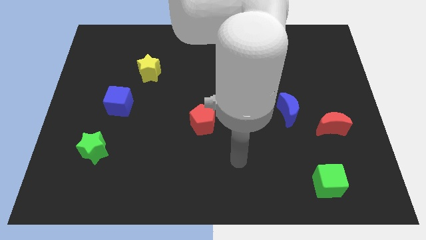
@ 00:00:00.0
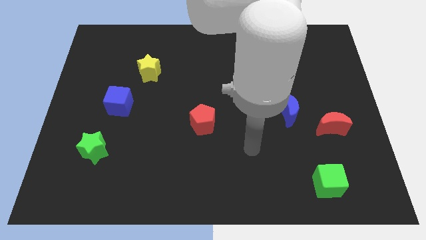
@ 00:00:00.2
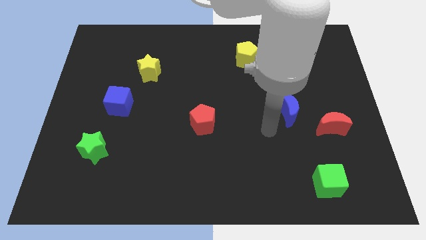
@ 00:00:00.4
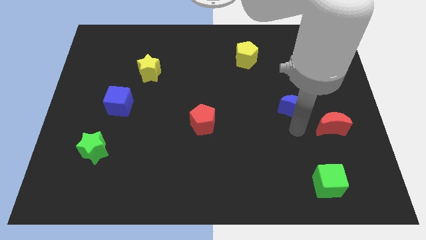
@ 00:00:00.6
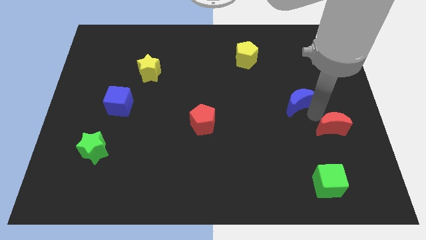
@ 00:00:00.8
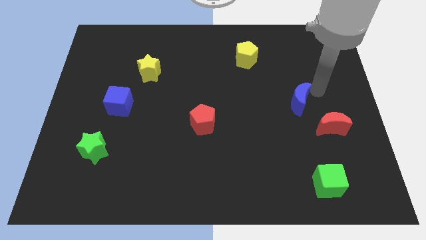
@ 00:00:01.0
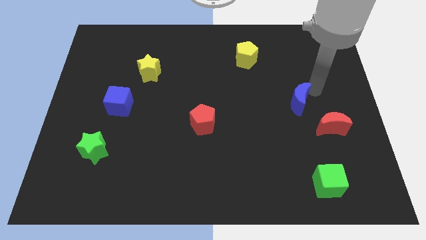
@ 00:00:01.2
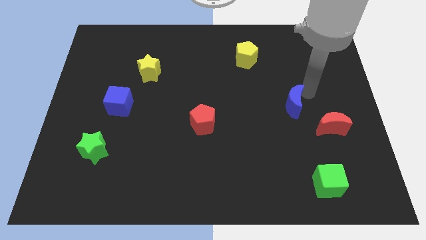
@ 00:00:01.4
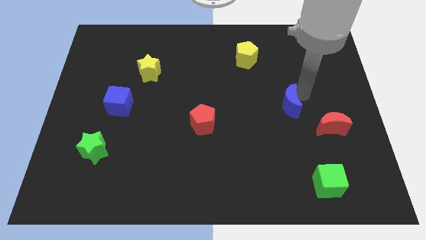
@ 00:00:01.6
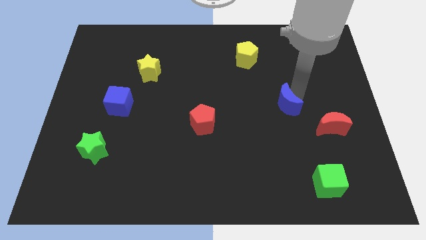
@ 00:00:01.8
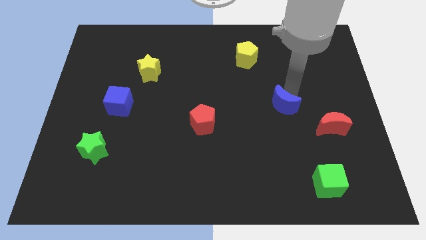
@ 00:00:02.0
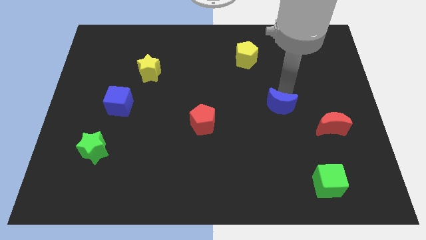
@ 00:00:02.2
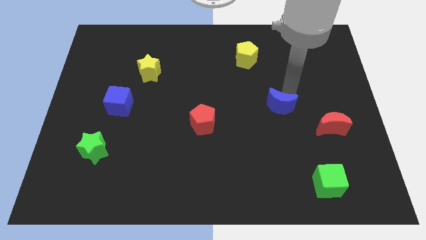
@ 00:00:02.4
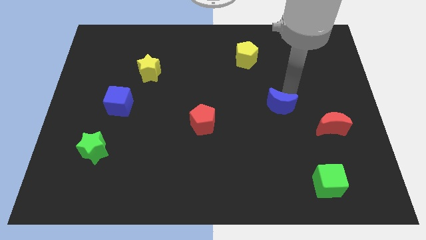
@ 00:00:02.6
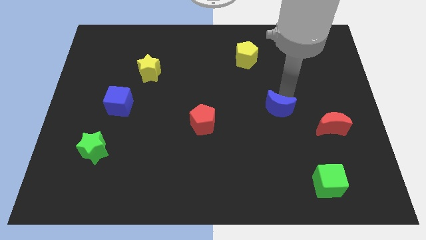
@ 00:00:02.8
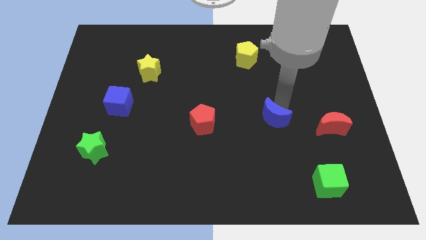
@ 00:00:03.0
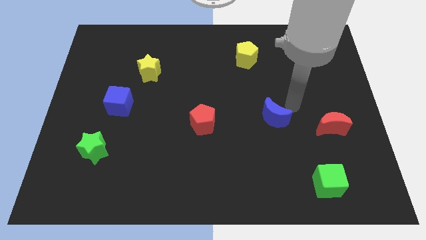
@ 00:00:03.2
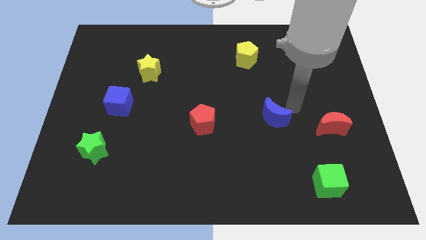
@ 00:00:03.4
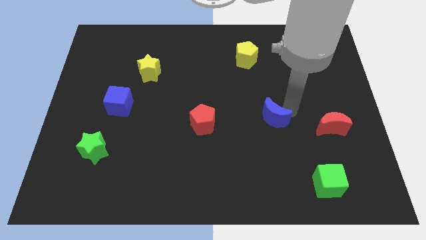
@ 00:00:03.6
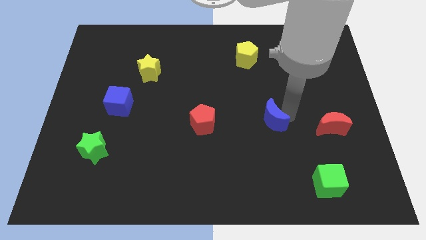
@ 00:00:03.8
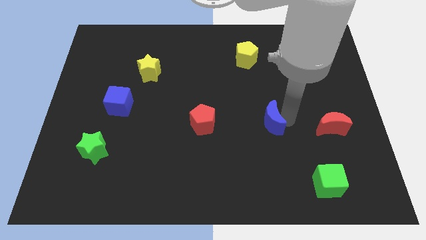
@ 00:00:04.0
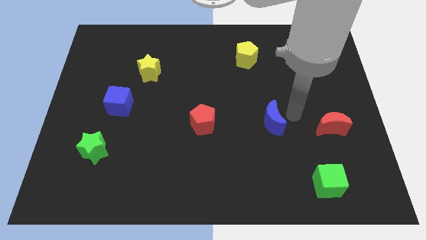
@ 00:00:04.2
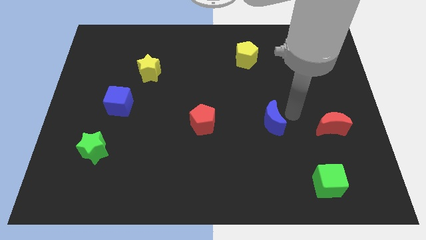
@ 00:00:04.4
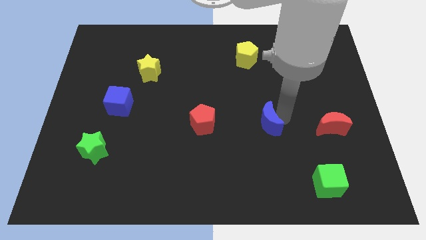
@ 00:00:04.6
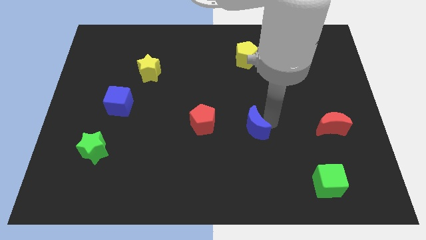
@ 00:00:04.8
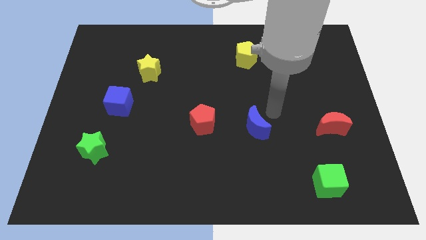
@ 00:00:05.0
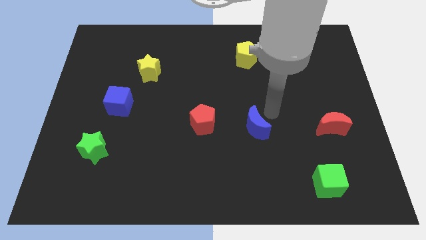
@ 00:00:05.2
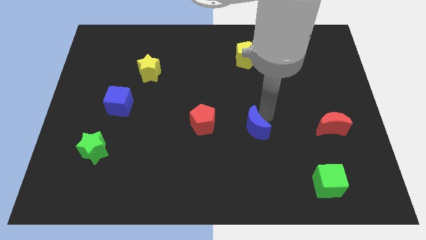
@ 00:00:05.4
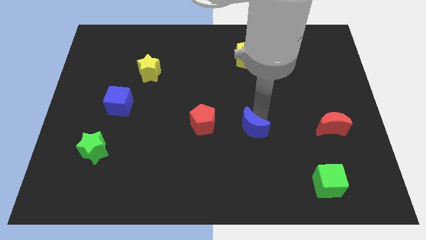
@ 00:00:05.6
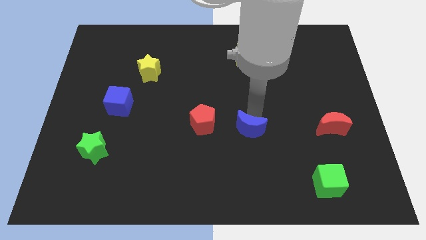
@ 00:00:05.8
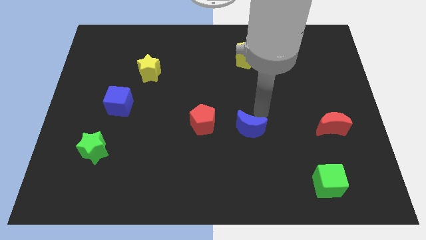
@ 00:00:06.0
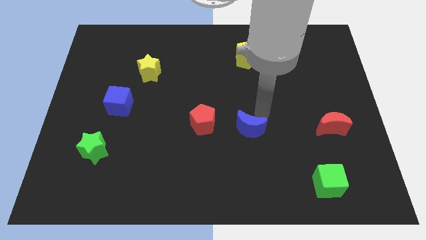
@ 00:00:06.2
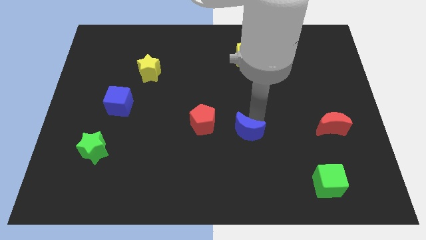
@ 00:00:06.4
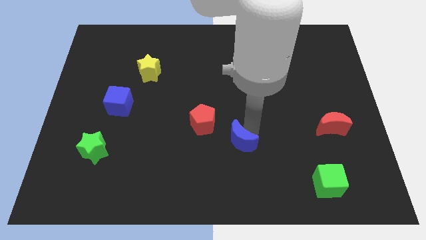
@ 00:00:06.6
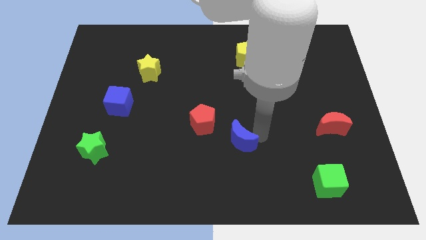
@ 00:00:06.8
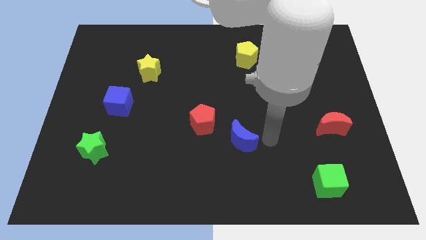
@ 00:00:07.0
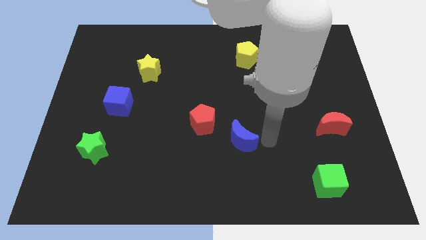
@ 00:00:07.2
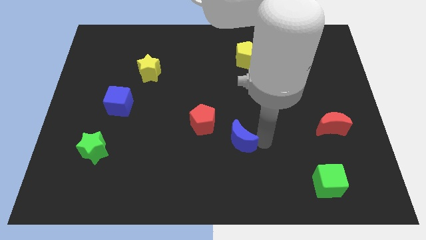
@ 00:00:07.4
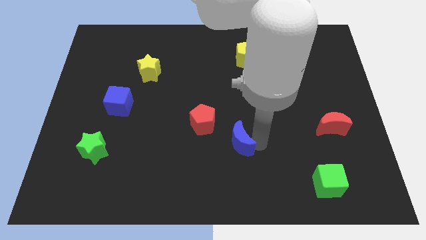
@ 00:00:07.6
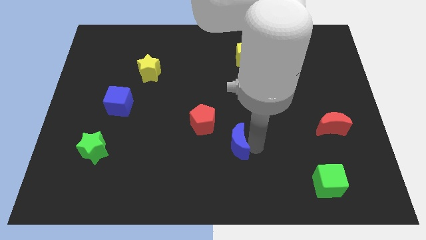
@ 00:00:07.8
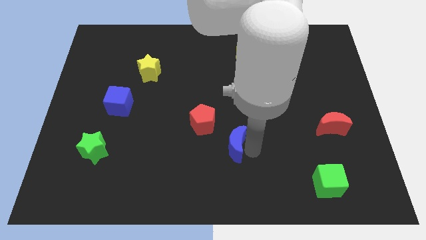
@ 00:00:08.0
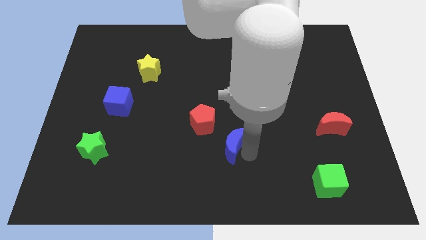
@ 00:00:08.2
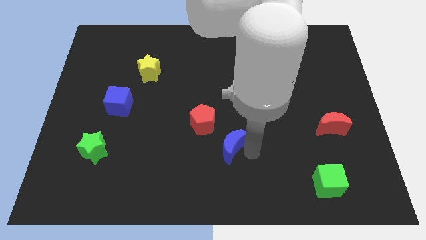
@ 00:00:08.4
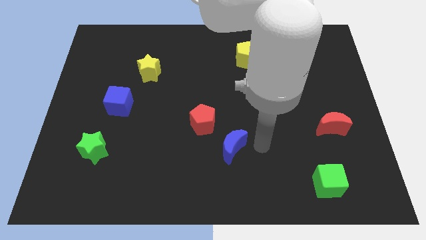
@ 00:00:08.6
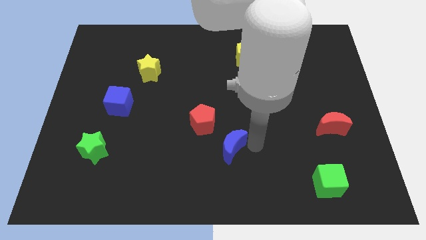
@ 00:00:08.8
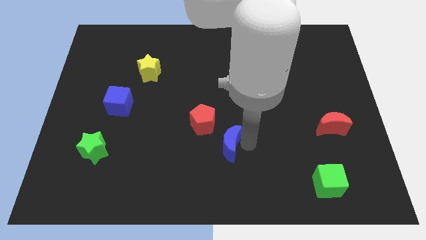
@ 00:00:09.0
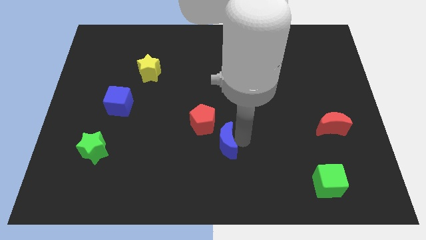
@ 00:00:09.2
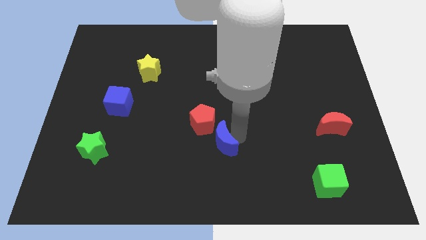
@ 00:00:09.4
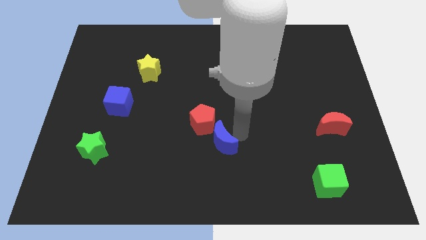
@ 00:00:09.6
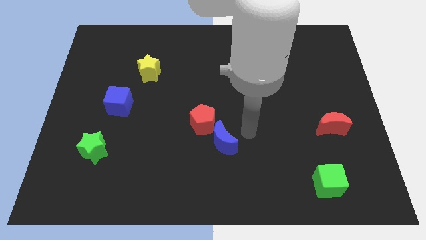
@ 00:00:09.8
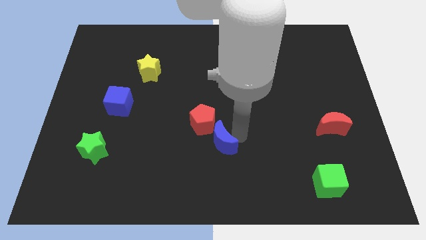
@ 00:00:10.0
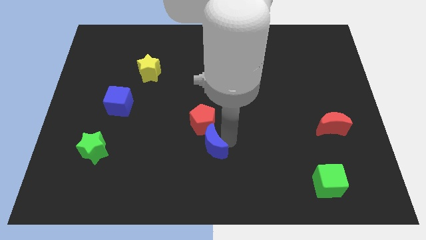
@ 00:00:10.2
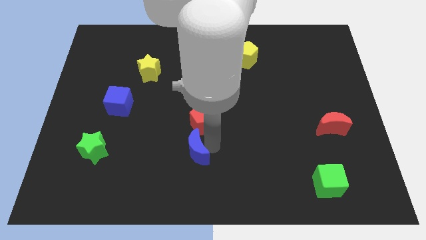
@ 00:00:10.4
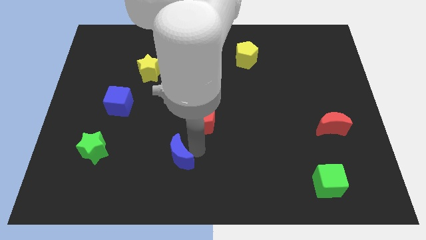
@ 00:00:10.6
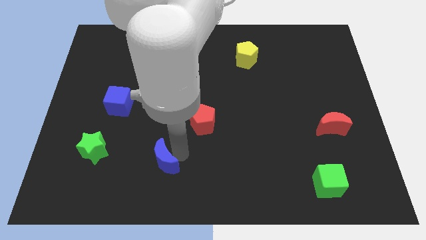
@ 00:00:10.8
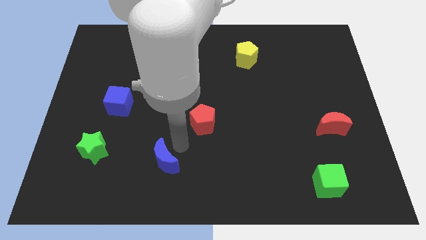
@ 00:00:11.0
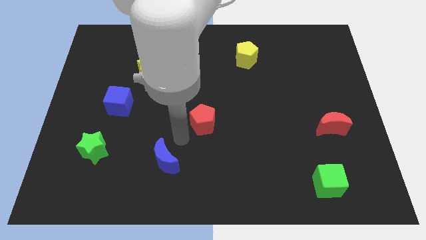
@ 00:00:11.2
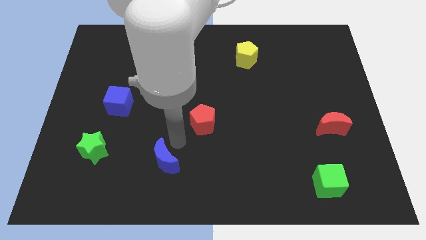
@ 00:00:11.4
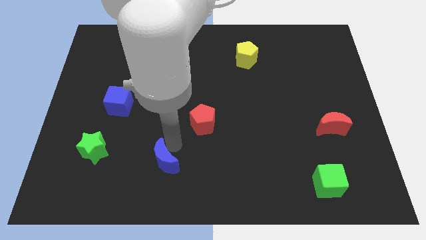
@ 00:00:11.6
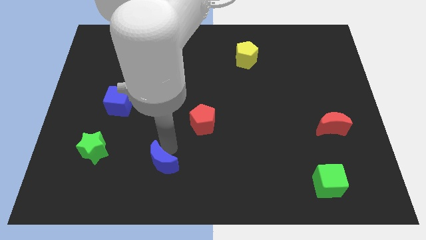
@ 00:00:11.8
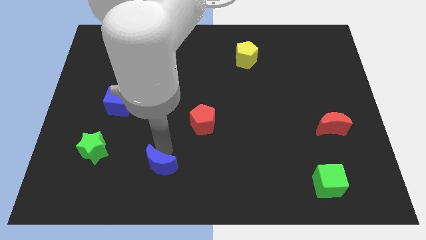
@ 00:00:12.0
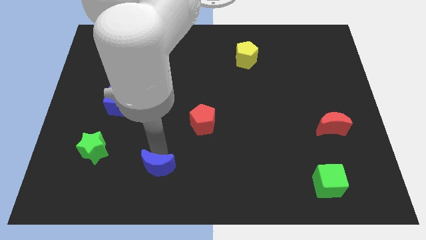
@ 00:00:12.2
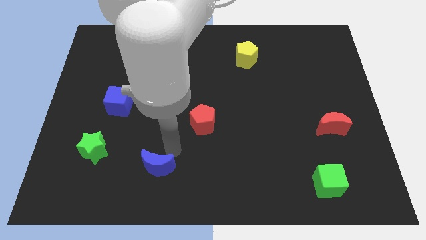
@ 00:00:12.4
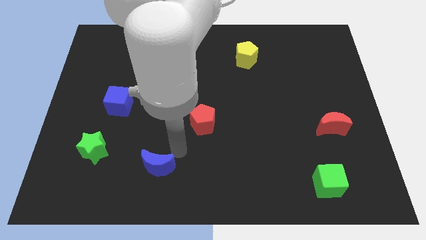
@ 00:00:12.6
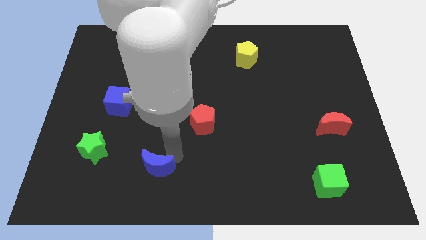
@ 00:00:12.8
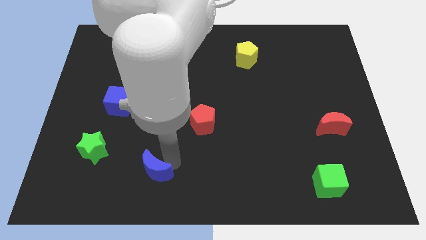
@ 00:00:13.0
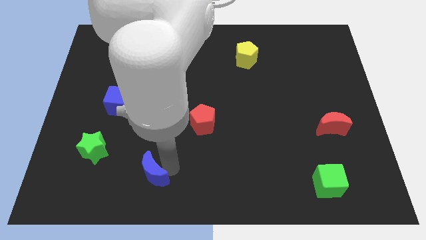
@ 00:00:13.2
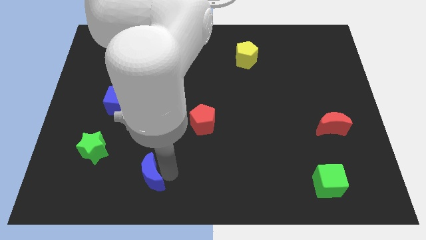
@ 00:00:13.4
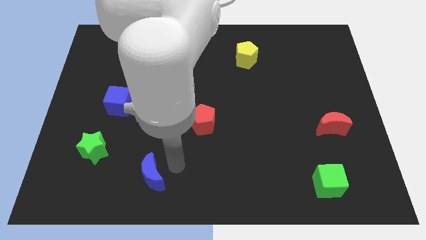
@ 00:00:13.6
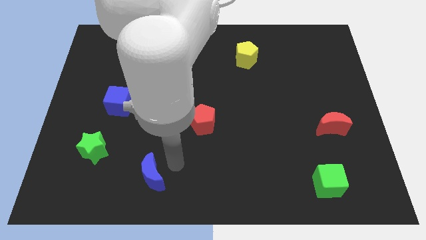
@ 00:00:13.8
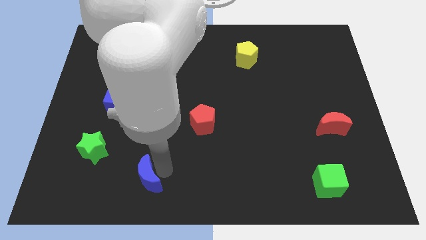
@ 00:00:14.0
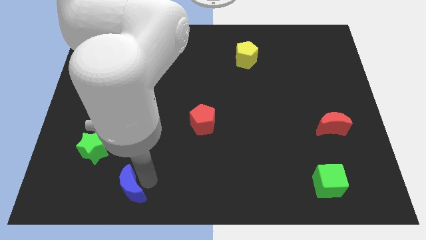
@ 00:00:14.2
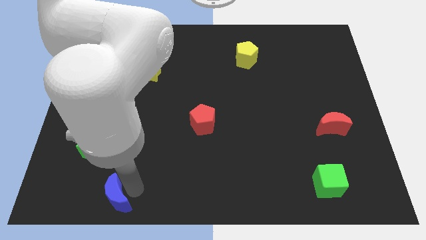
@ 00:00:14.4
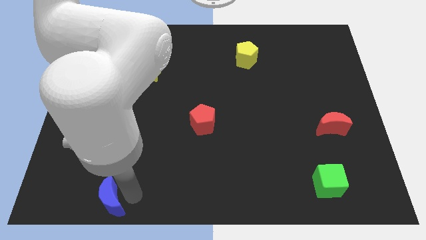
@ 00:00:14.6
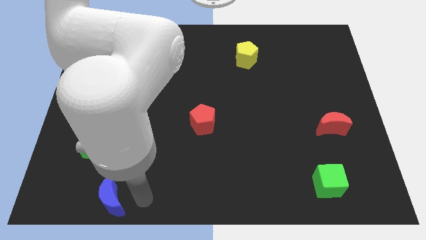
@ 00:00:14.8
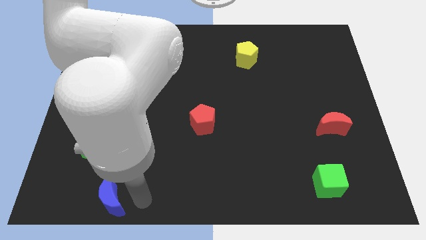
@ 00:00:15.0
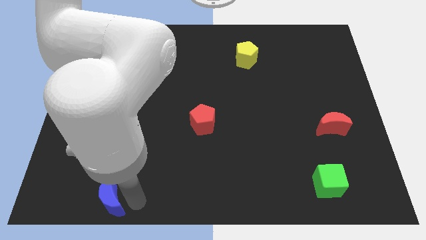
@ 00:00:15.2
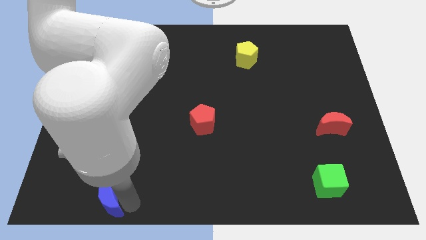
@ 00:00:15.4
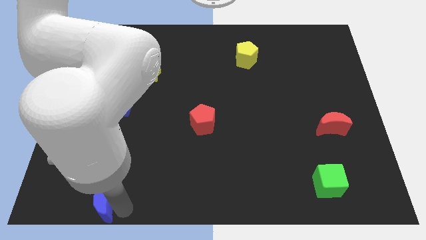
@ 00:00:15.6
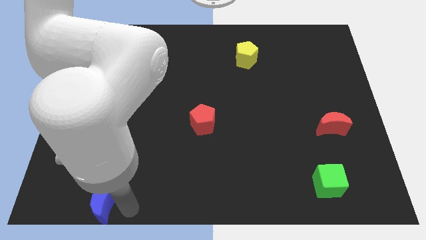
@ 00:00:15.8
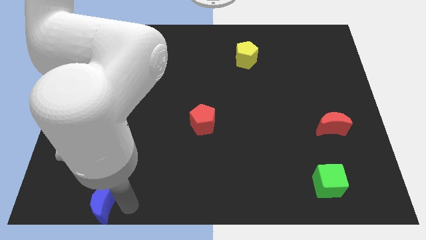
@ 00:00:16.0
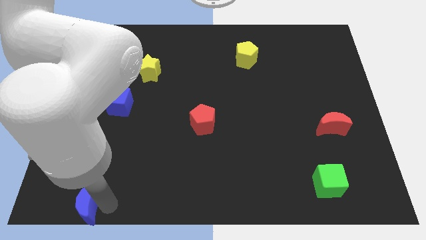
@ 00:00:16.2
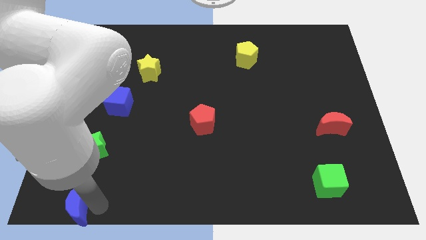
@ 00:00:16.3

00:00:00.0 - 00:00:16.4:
push the blue moon to the lower left corner
